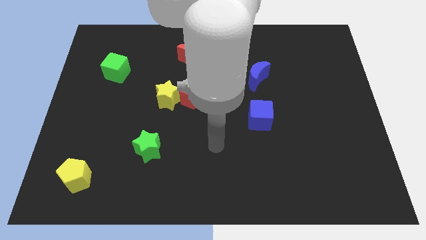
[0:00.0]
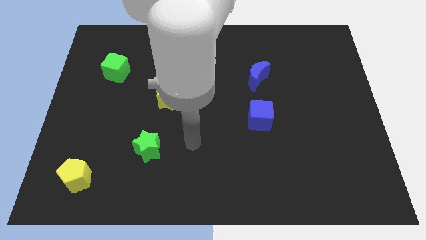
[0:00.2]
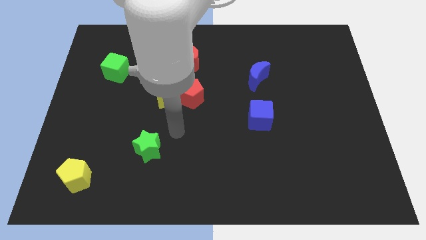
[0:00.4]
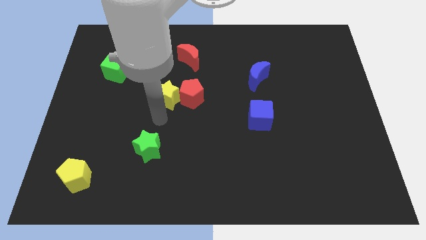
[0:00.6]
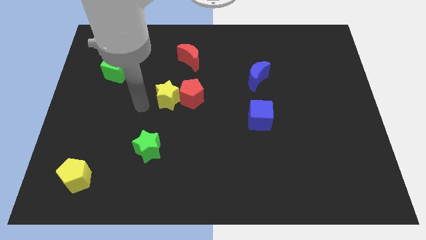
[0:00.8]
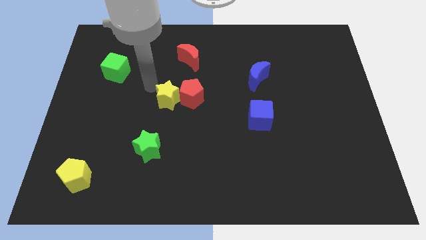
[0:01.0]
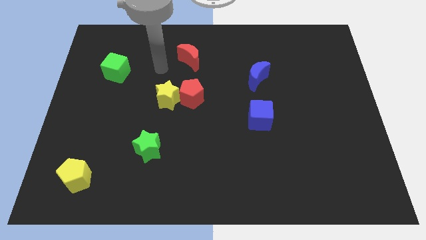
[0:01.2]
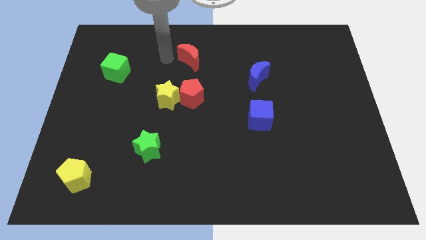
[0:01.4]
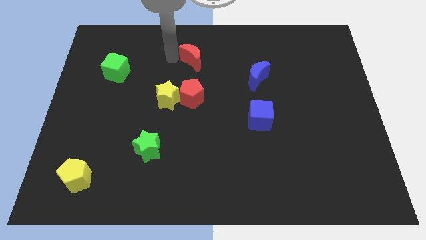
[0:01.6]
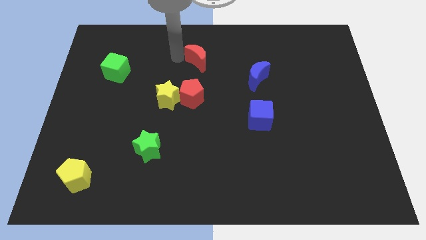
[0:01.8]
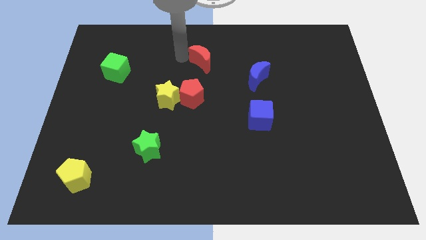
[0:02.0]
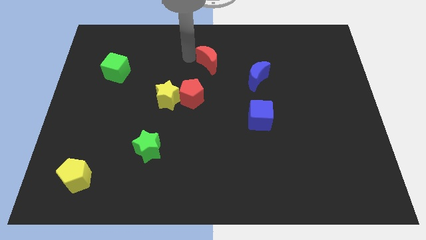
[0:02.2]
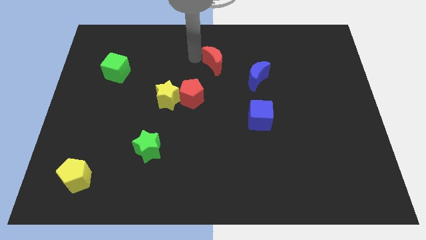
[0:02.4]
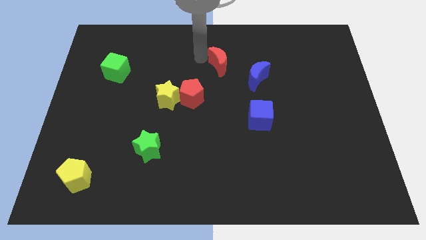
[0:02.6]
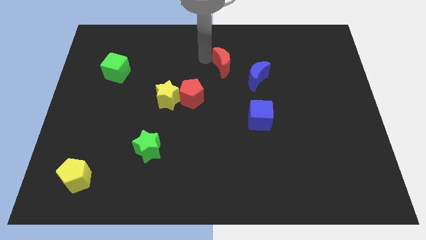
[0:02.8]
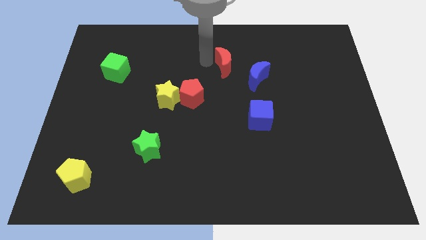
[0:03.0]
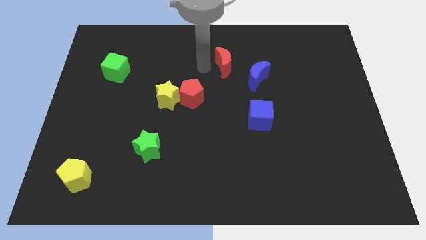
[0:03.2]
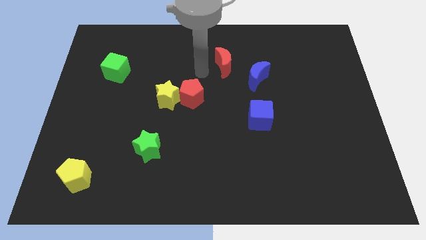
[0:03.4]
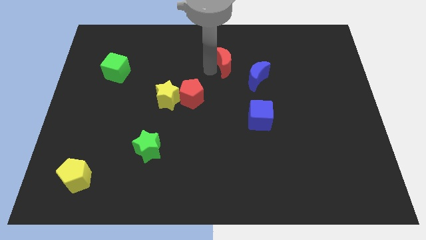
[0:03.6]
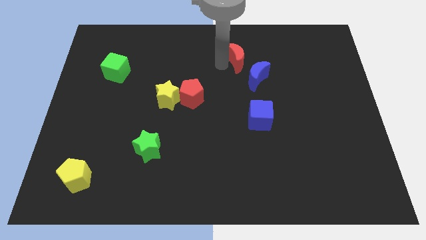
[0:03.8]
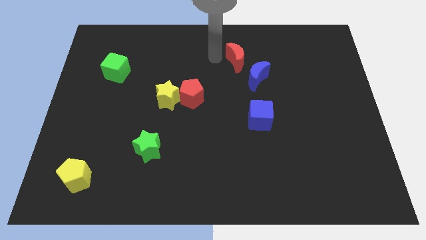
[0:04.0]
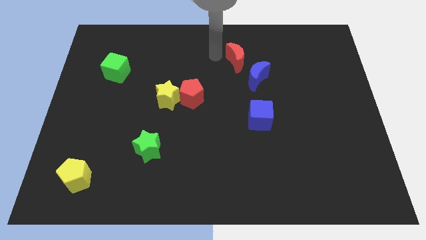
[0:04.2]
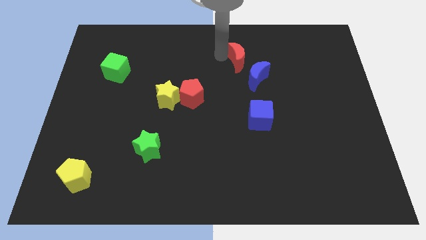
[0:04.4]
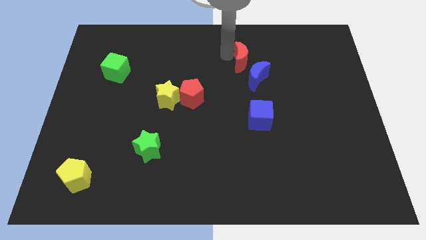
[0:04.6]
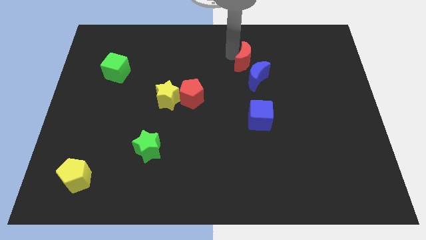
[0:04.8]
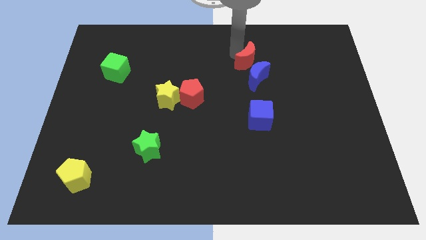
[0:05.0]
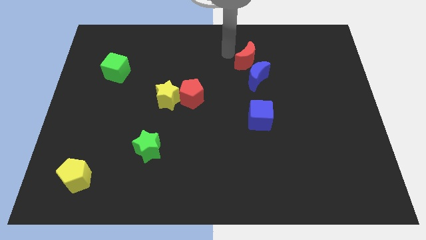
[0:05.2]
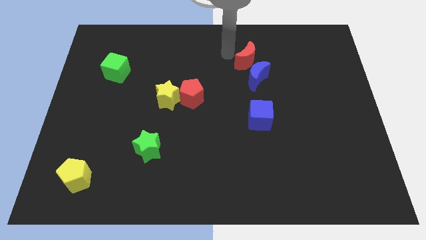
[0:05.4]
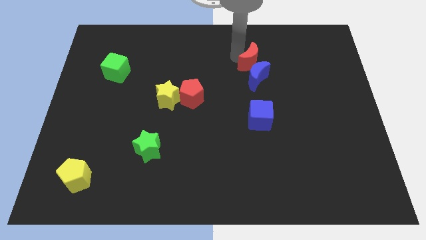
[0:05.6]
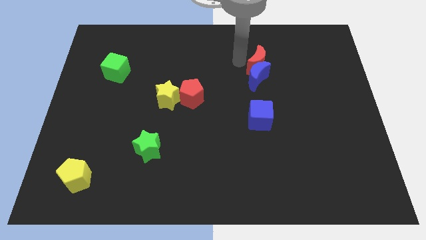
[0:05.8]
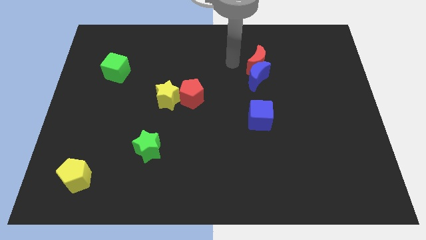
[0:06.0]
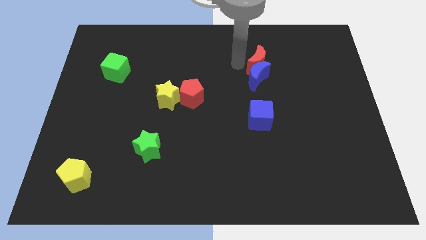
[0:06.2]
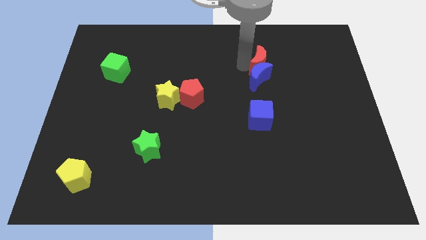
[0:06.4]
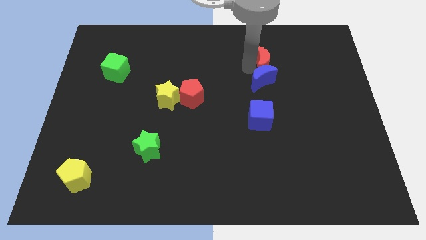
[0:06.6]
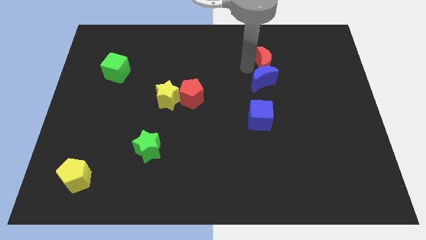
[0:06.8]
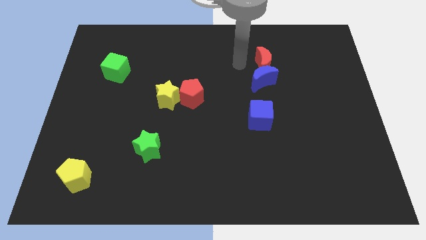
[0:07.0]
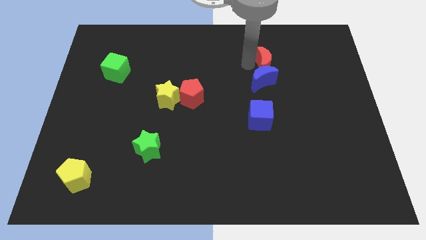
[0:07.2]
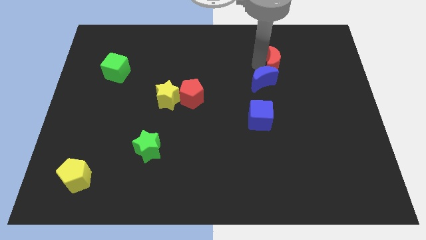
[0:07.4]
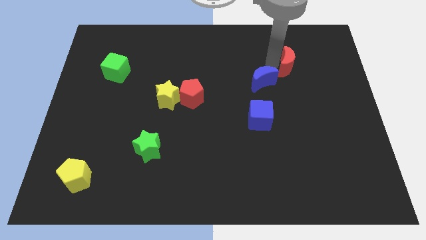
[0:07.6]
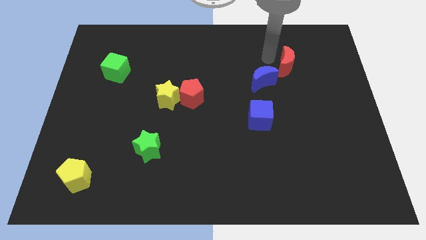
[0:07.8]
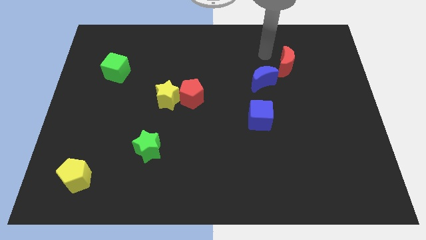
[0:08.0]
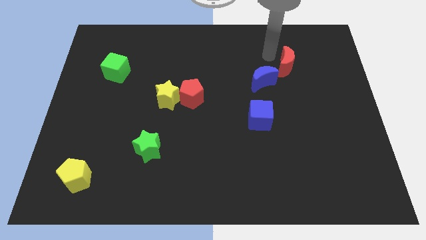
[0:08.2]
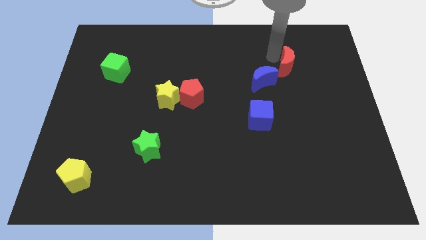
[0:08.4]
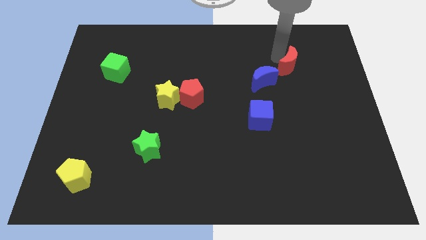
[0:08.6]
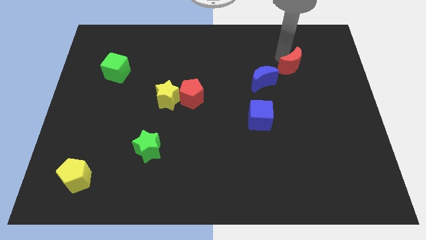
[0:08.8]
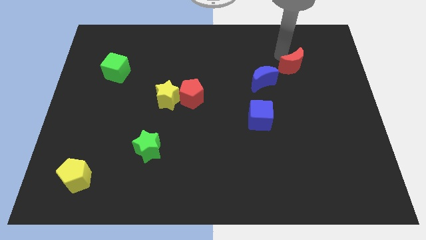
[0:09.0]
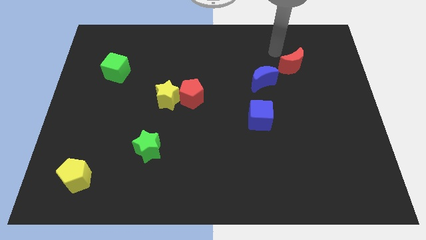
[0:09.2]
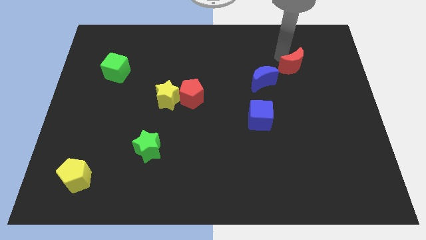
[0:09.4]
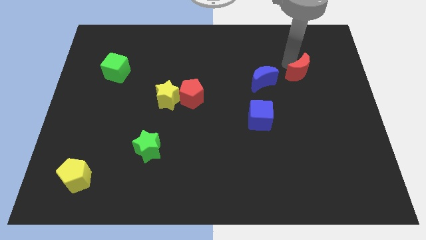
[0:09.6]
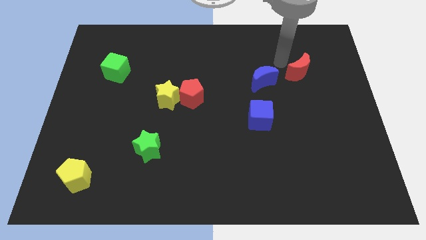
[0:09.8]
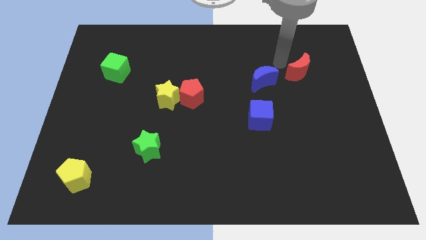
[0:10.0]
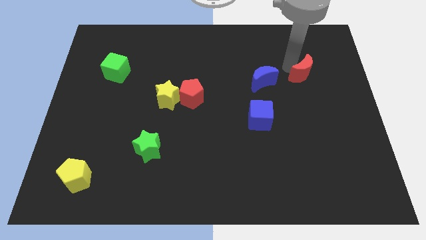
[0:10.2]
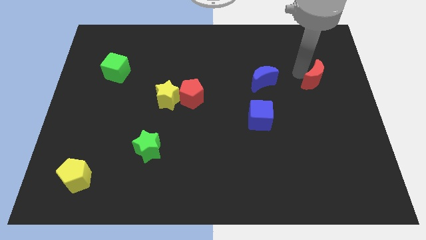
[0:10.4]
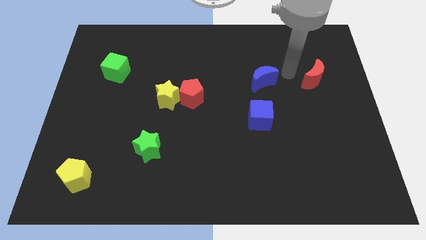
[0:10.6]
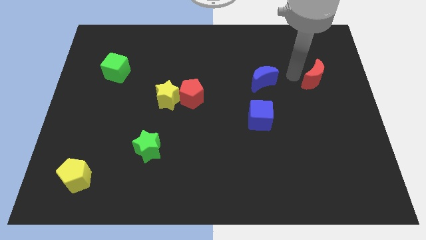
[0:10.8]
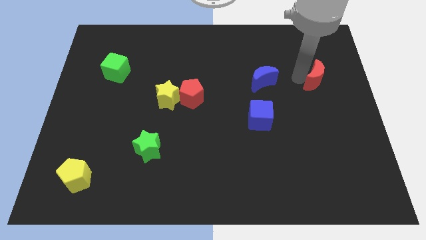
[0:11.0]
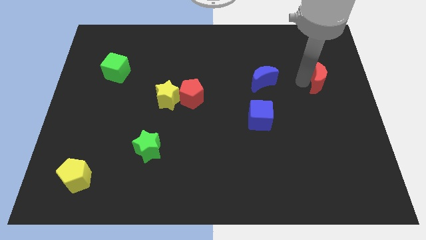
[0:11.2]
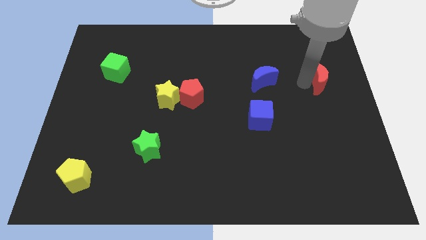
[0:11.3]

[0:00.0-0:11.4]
put the red moon to the right side of the board

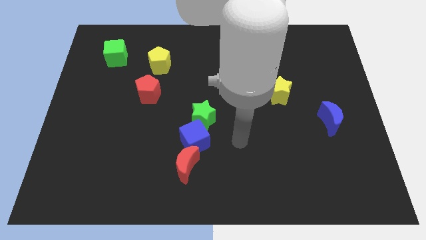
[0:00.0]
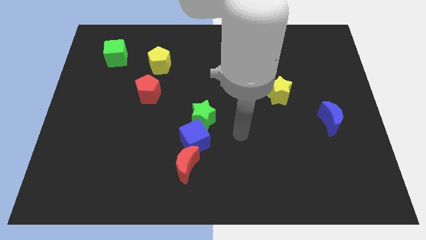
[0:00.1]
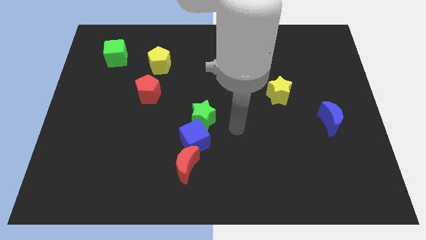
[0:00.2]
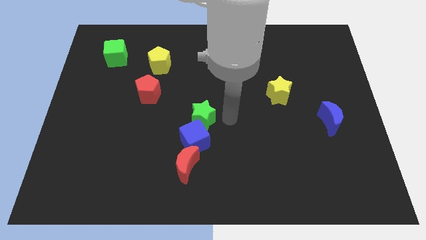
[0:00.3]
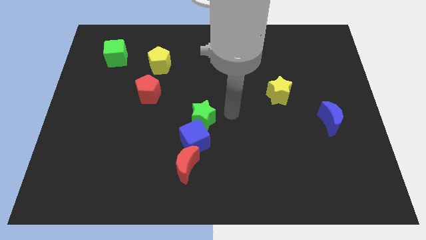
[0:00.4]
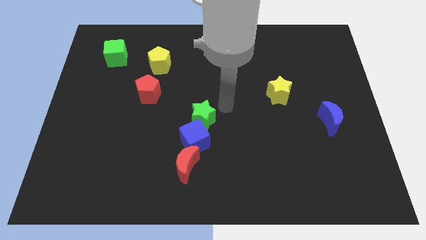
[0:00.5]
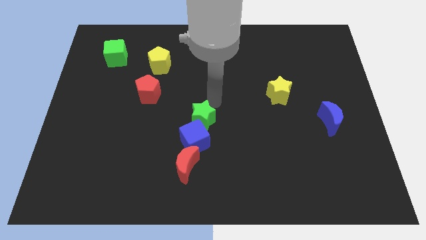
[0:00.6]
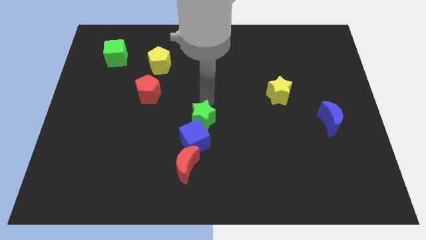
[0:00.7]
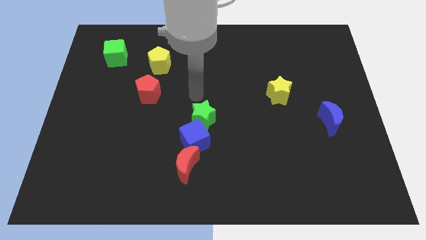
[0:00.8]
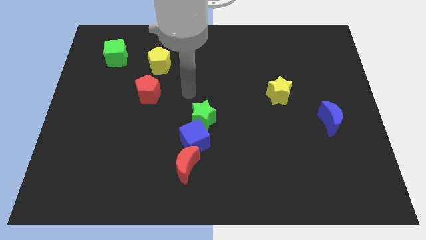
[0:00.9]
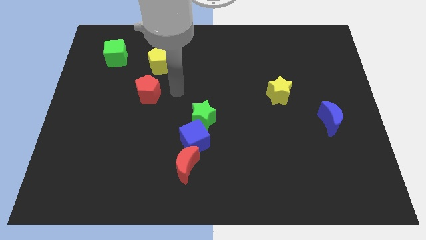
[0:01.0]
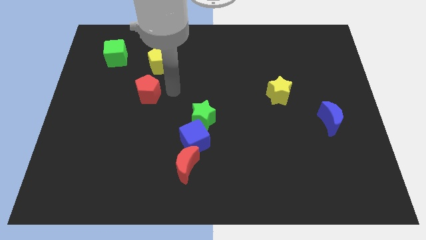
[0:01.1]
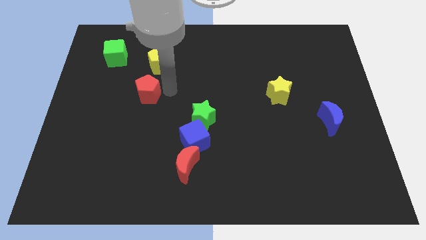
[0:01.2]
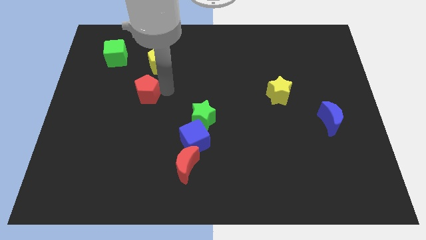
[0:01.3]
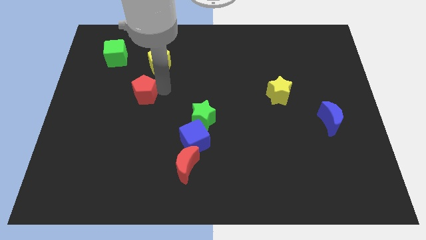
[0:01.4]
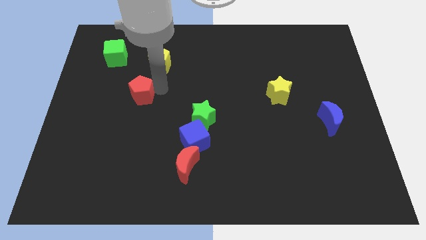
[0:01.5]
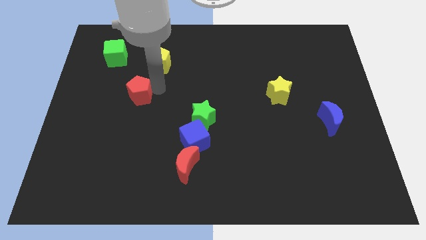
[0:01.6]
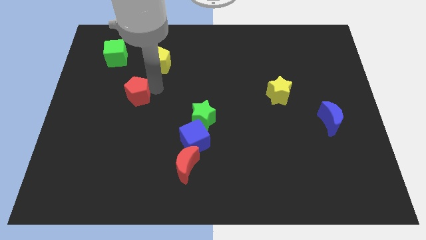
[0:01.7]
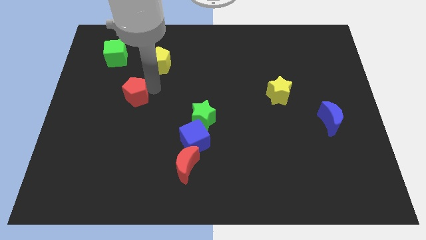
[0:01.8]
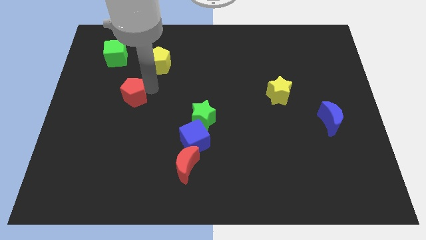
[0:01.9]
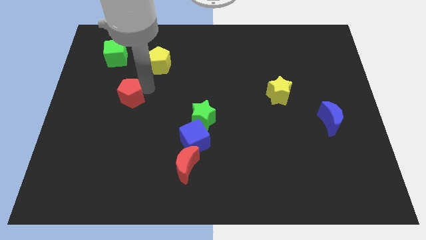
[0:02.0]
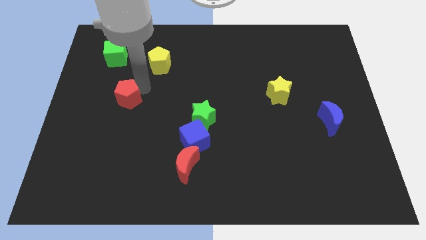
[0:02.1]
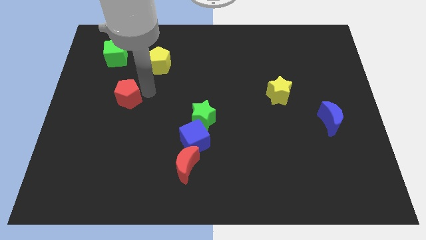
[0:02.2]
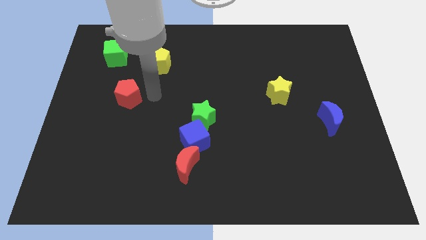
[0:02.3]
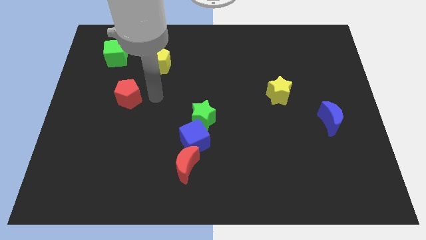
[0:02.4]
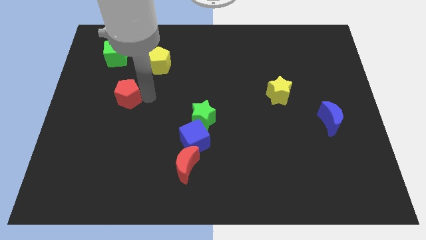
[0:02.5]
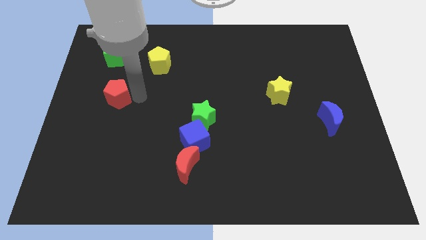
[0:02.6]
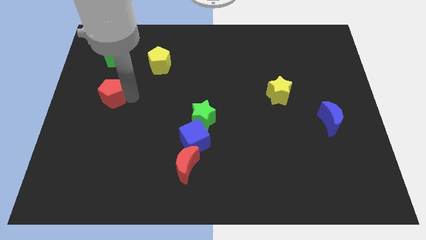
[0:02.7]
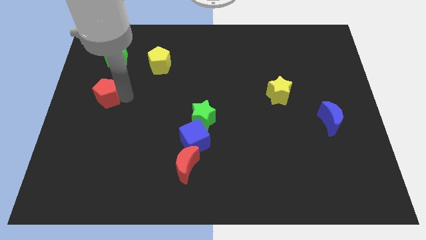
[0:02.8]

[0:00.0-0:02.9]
push the red pentagon to the center left
